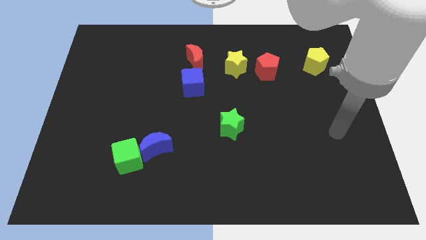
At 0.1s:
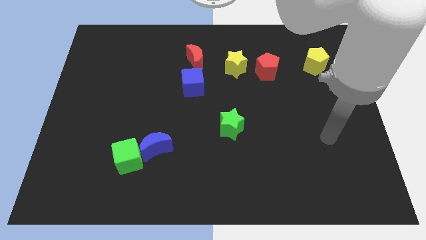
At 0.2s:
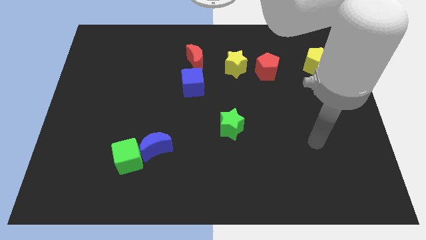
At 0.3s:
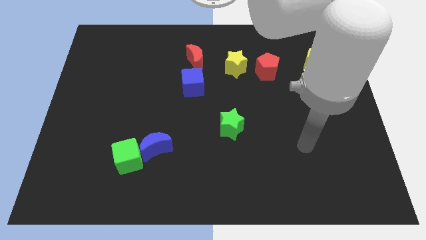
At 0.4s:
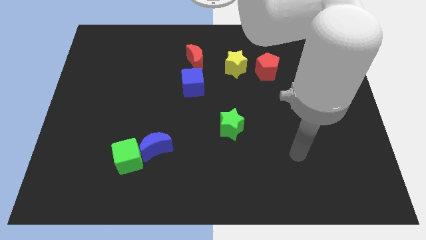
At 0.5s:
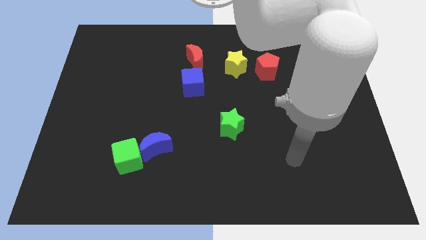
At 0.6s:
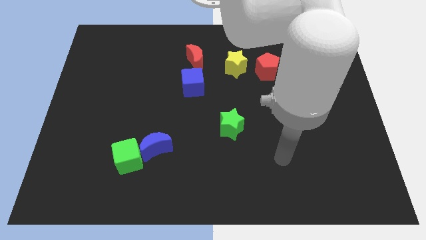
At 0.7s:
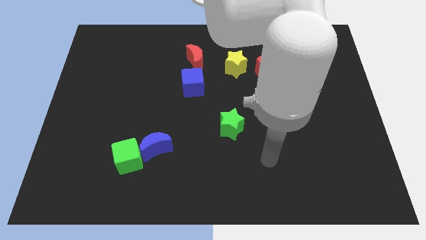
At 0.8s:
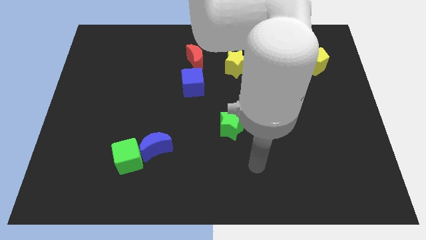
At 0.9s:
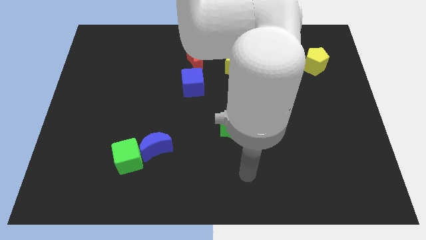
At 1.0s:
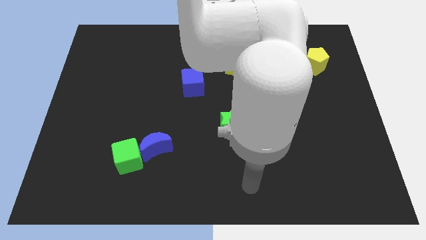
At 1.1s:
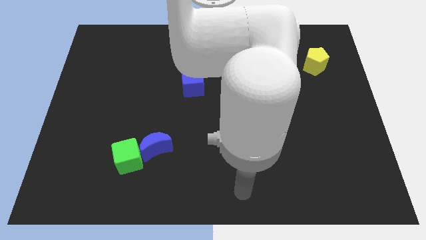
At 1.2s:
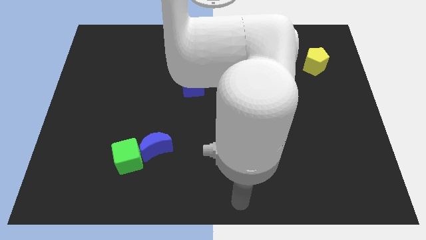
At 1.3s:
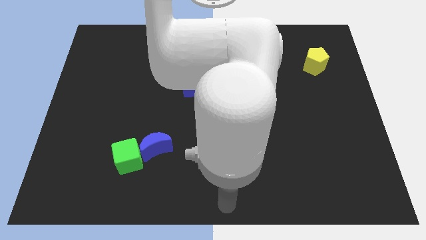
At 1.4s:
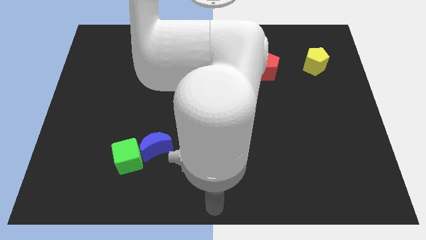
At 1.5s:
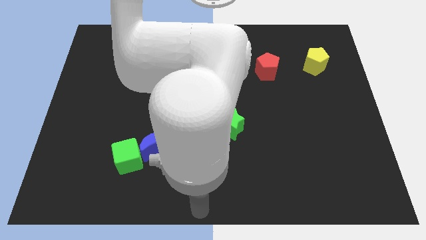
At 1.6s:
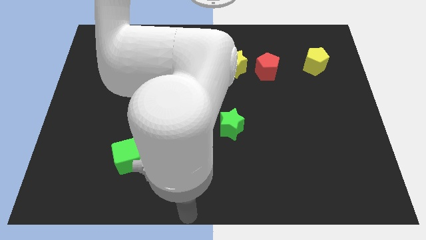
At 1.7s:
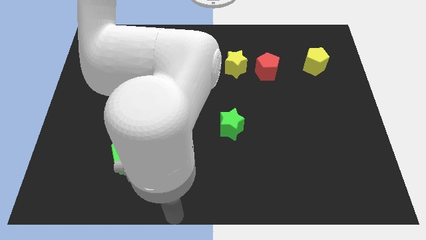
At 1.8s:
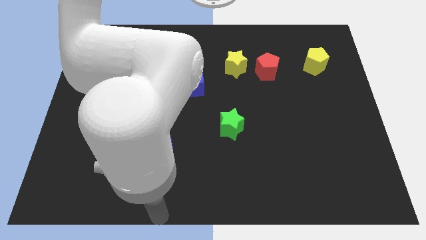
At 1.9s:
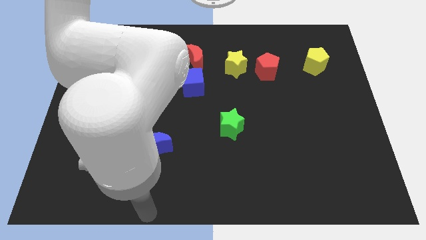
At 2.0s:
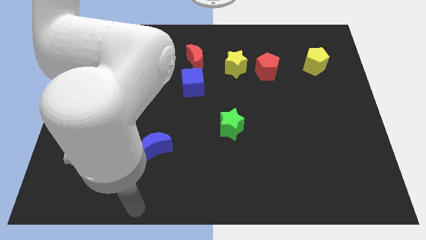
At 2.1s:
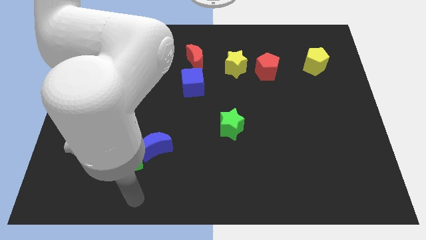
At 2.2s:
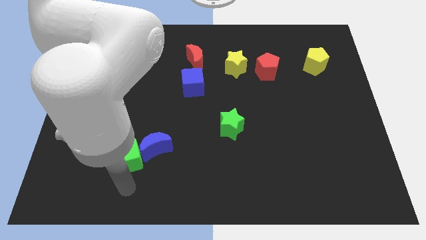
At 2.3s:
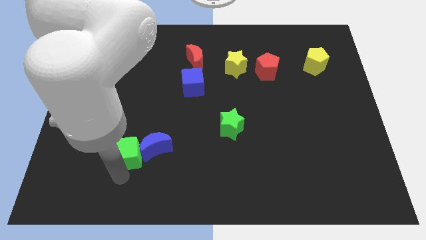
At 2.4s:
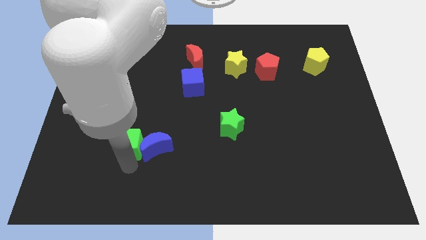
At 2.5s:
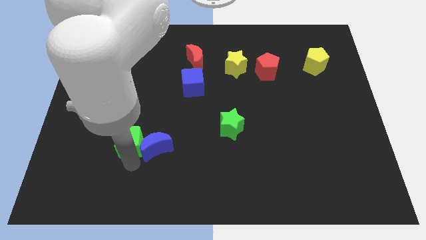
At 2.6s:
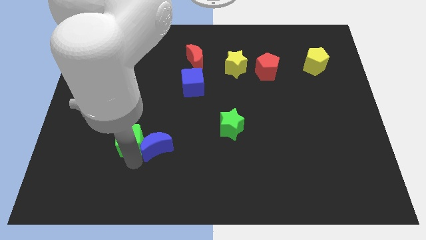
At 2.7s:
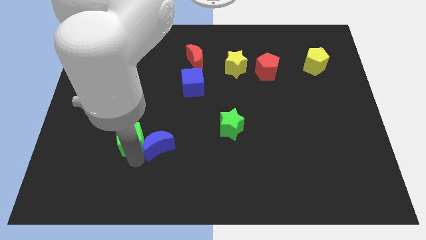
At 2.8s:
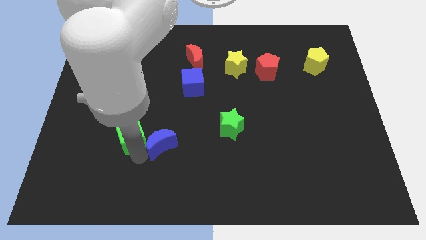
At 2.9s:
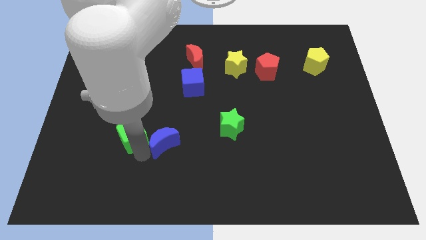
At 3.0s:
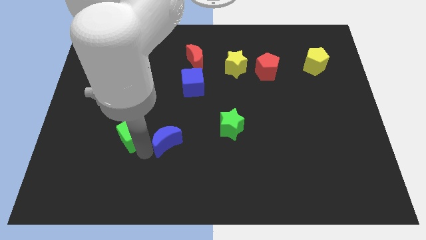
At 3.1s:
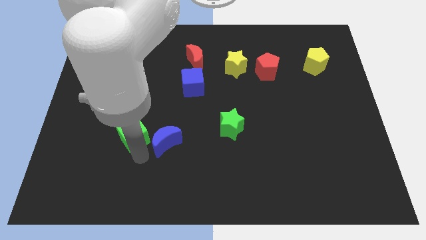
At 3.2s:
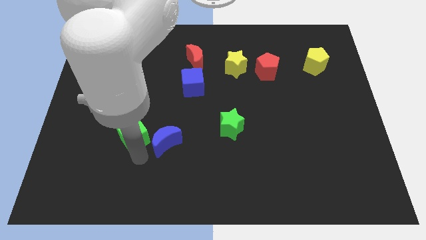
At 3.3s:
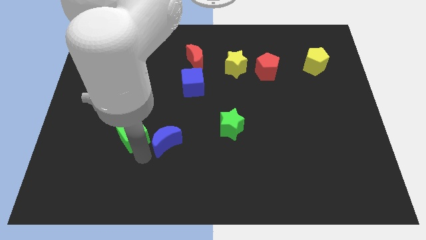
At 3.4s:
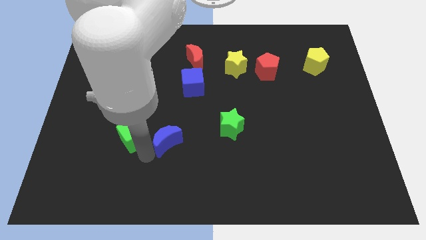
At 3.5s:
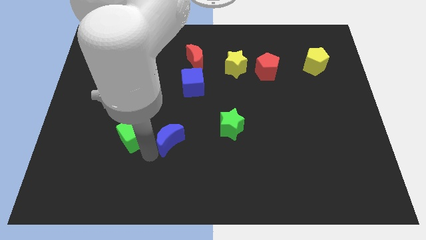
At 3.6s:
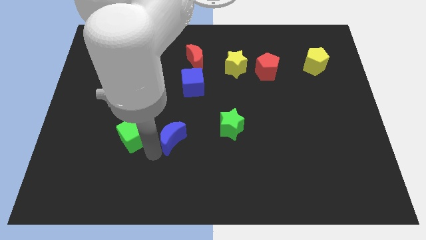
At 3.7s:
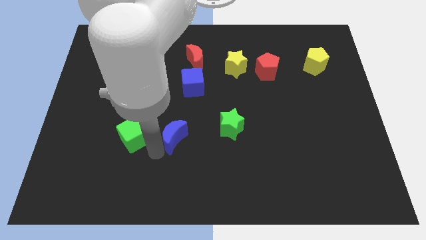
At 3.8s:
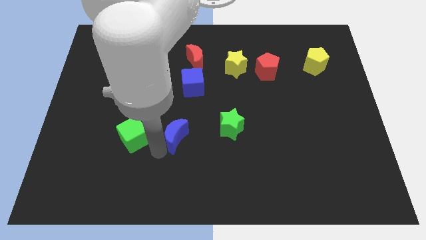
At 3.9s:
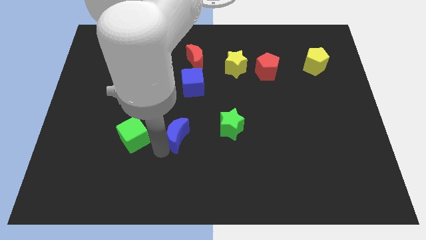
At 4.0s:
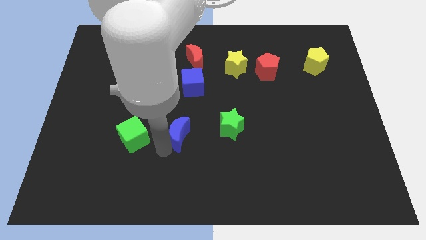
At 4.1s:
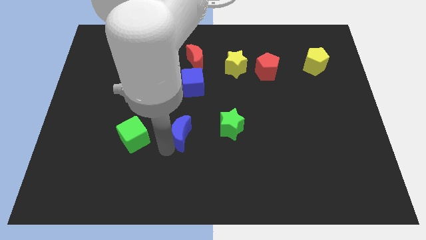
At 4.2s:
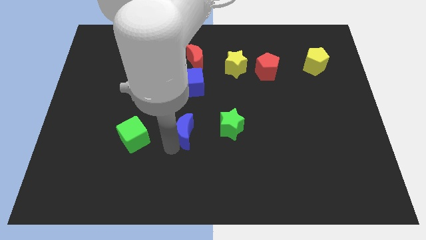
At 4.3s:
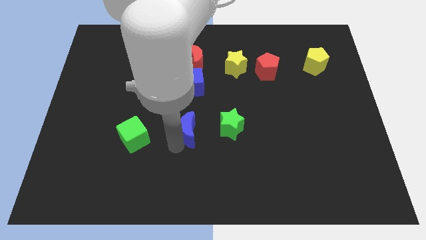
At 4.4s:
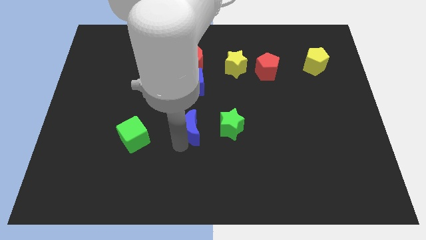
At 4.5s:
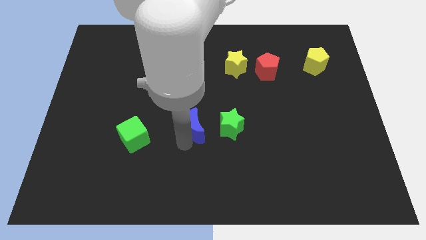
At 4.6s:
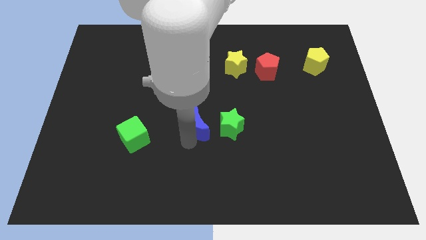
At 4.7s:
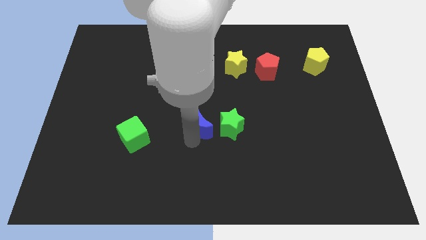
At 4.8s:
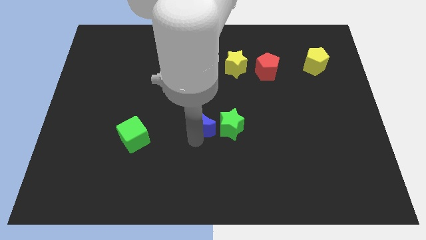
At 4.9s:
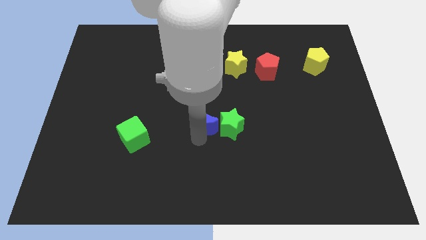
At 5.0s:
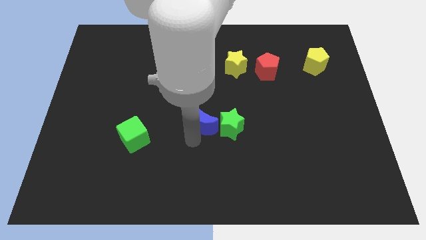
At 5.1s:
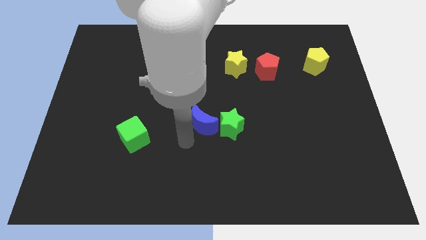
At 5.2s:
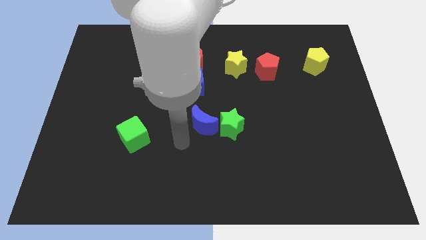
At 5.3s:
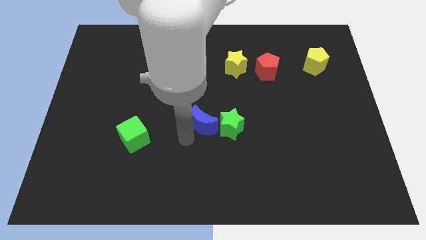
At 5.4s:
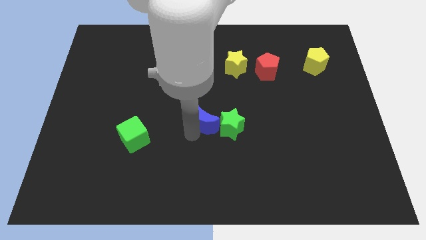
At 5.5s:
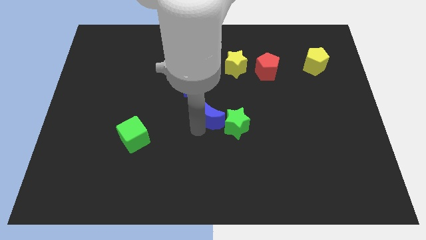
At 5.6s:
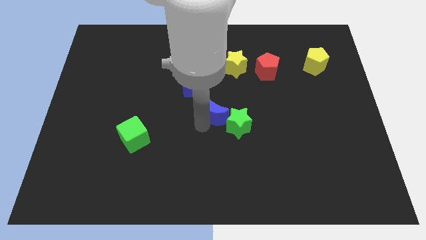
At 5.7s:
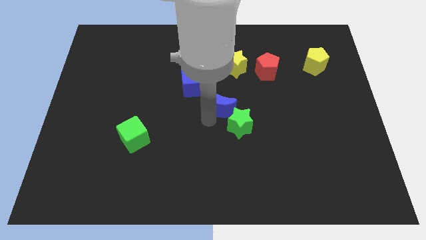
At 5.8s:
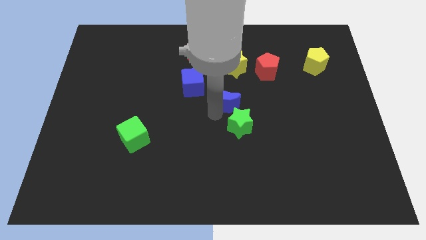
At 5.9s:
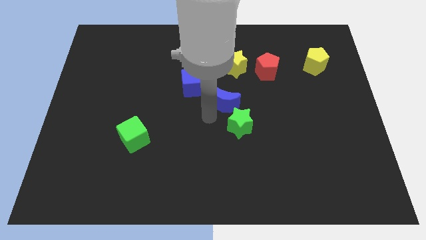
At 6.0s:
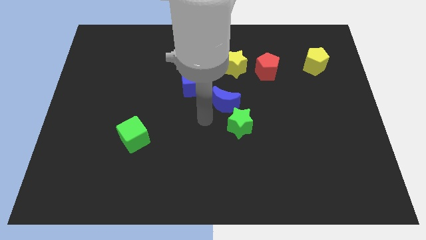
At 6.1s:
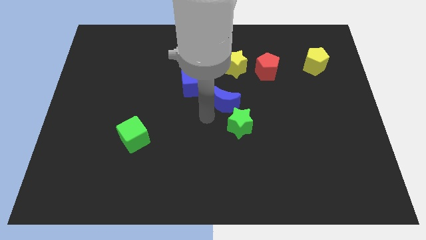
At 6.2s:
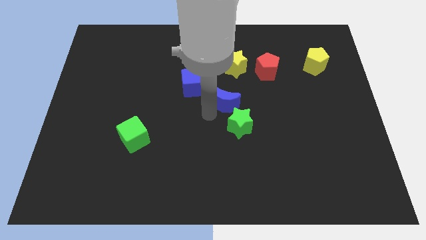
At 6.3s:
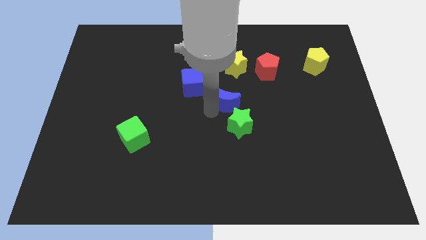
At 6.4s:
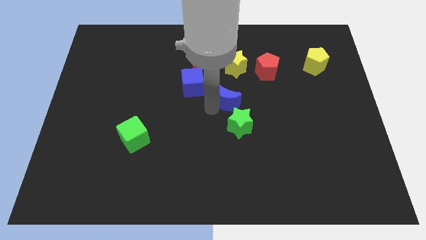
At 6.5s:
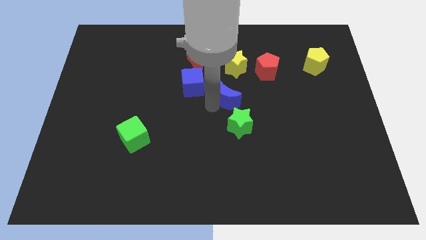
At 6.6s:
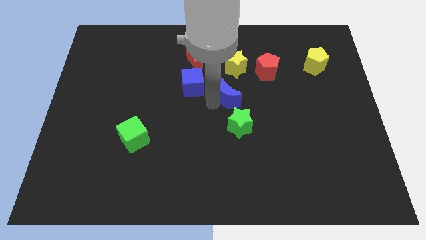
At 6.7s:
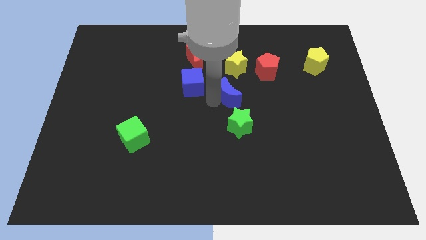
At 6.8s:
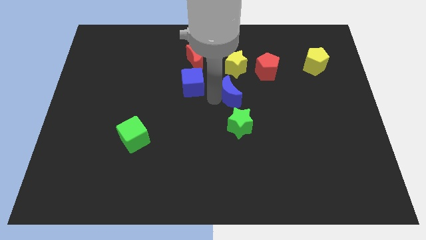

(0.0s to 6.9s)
push the blue moon to the bottom left of the red pentagon

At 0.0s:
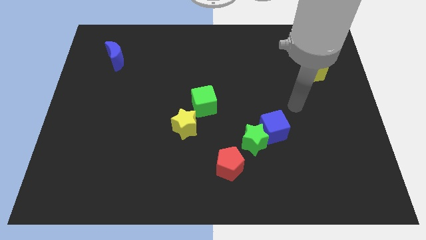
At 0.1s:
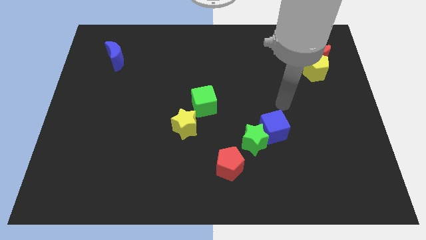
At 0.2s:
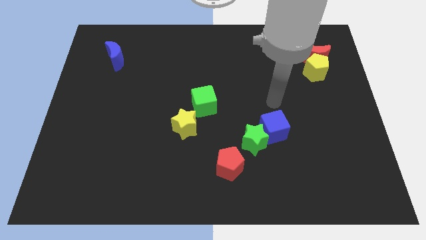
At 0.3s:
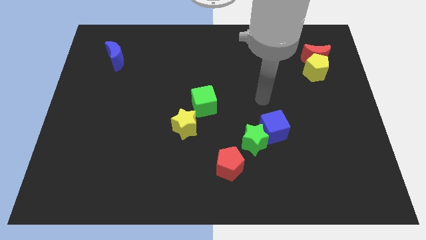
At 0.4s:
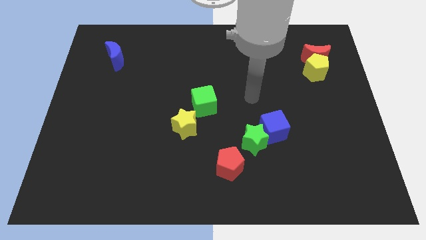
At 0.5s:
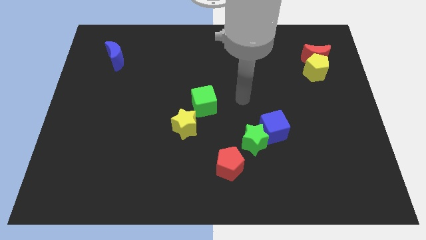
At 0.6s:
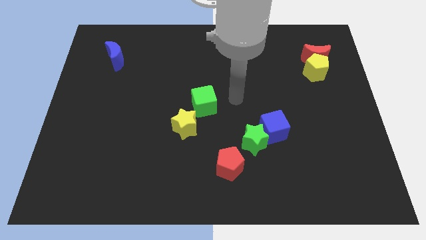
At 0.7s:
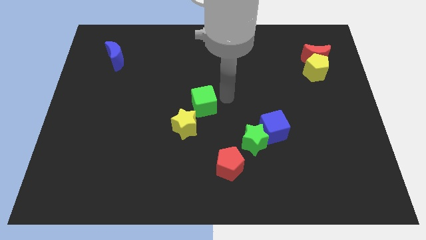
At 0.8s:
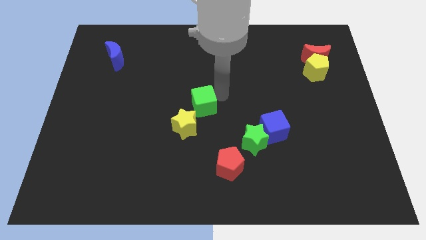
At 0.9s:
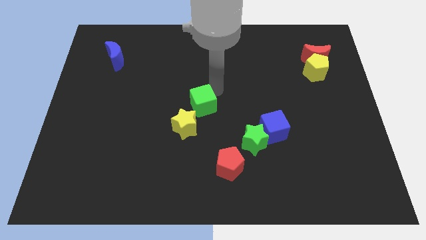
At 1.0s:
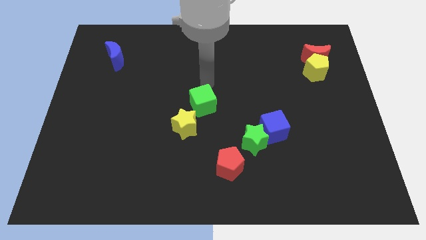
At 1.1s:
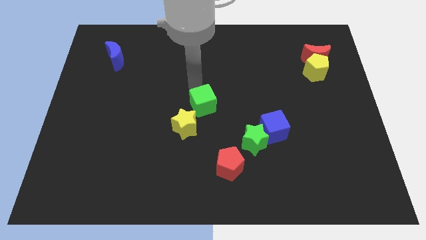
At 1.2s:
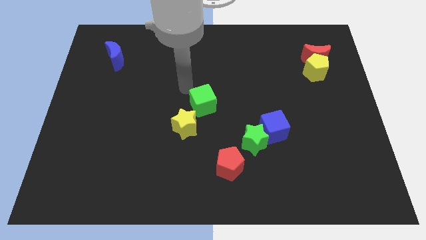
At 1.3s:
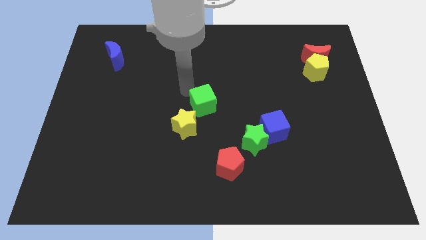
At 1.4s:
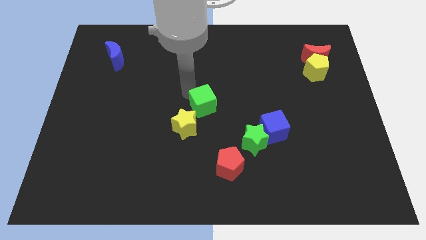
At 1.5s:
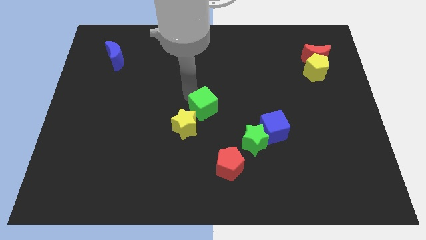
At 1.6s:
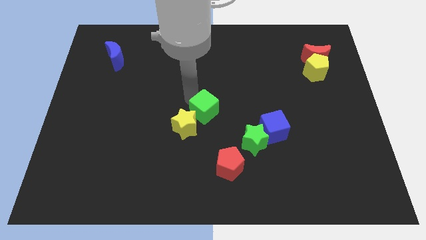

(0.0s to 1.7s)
push the green cube just right of the yellow star
